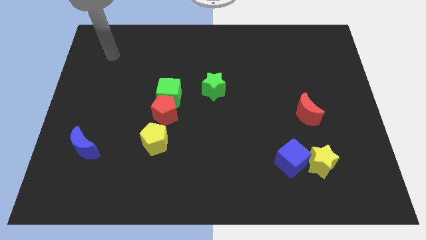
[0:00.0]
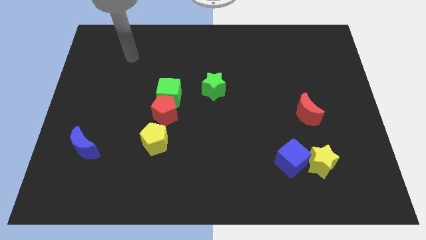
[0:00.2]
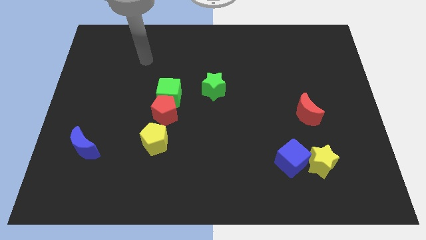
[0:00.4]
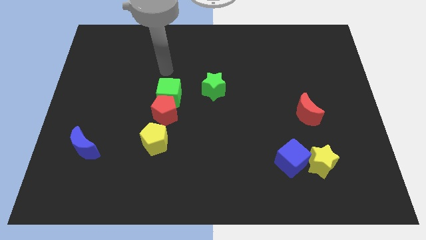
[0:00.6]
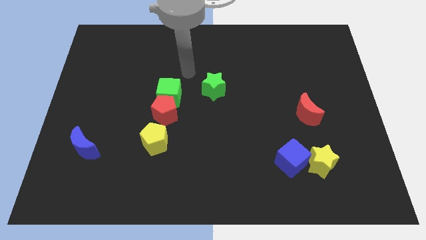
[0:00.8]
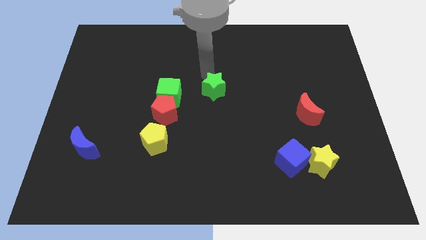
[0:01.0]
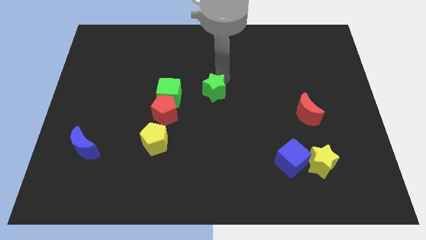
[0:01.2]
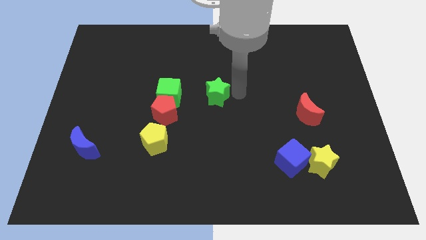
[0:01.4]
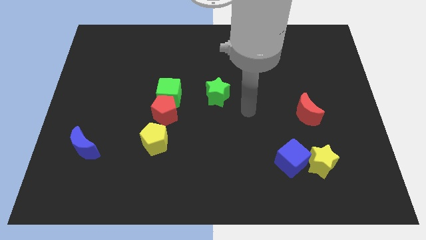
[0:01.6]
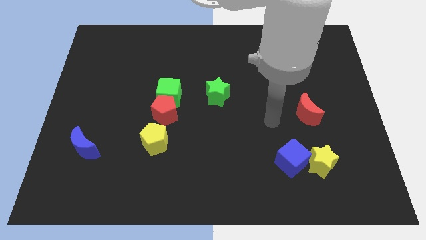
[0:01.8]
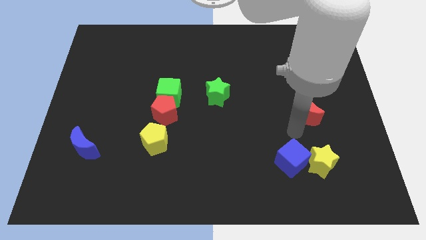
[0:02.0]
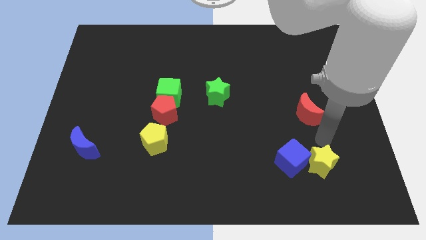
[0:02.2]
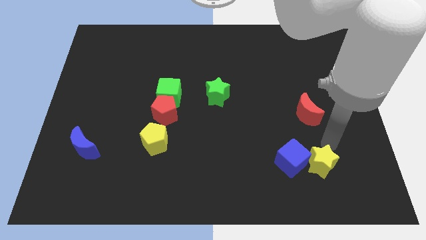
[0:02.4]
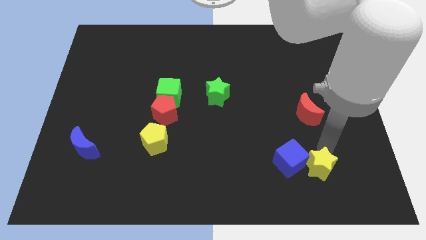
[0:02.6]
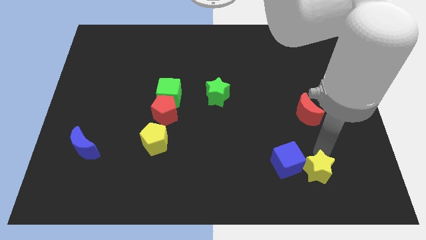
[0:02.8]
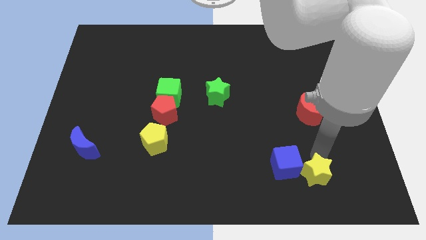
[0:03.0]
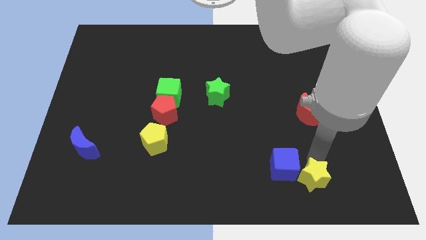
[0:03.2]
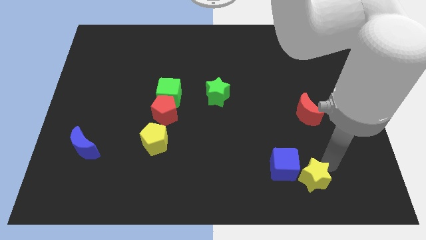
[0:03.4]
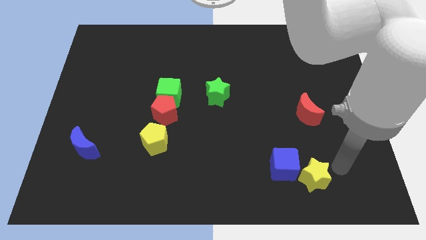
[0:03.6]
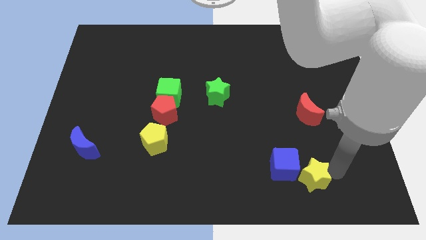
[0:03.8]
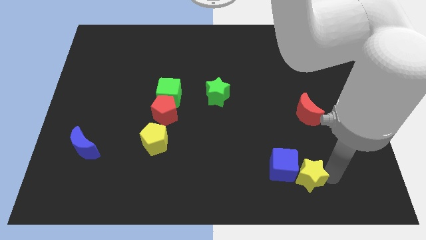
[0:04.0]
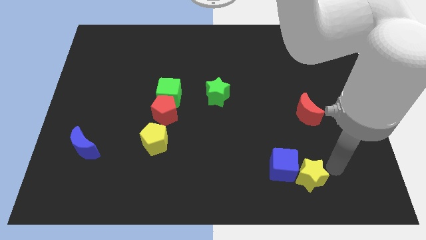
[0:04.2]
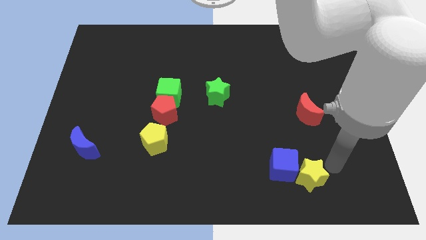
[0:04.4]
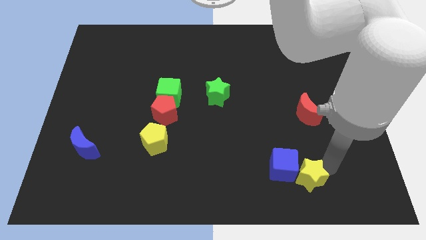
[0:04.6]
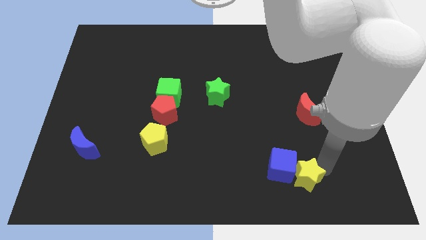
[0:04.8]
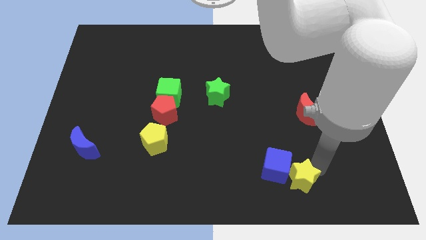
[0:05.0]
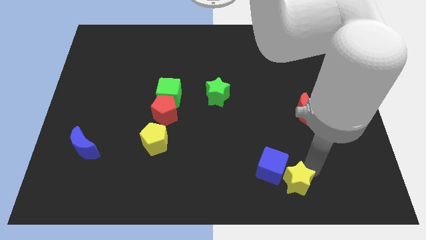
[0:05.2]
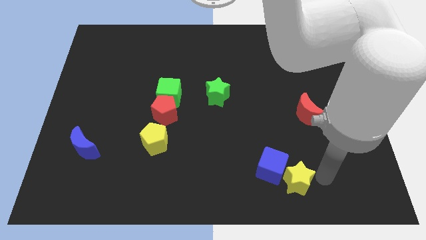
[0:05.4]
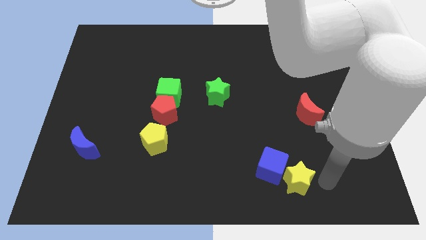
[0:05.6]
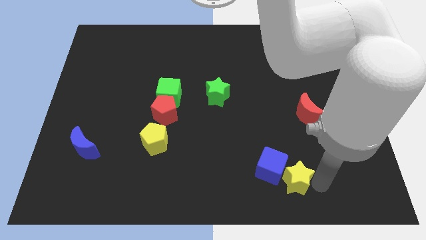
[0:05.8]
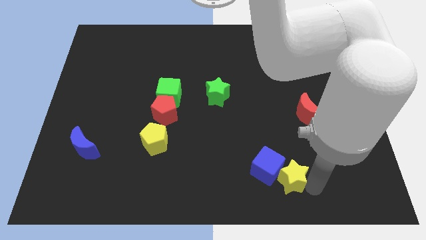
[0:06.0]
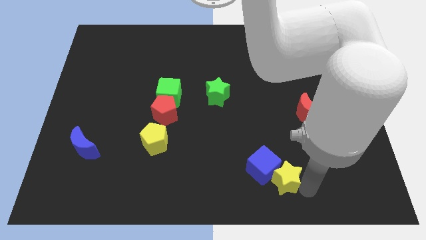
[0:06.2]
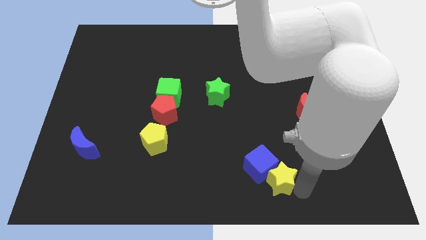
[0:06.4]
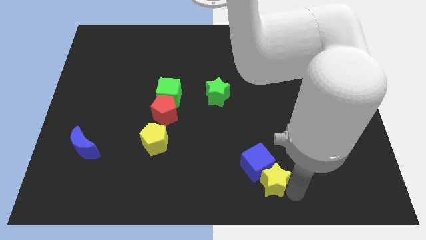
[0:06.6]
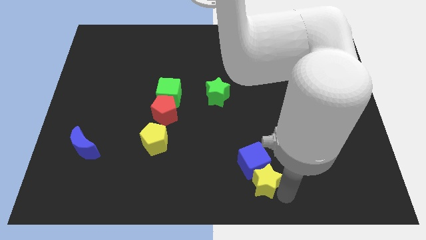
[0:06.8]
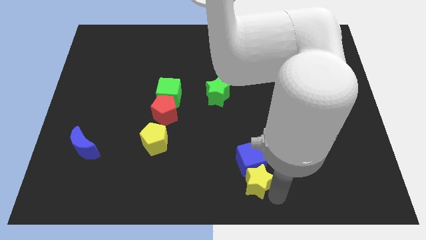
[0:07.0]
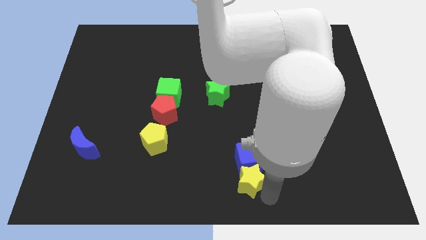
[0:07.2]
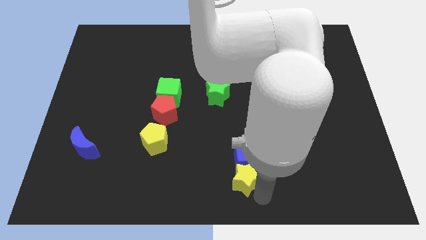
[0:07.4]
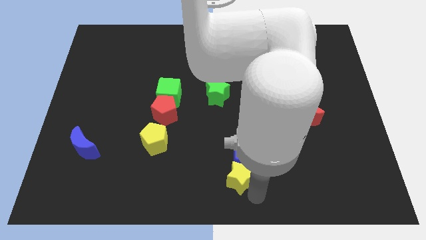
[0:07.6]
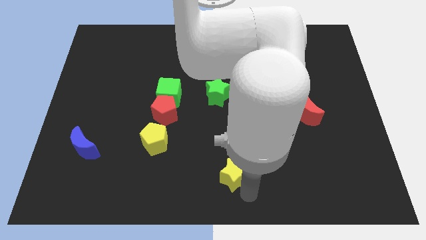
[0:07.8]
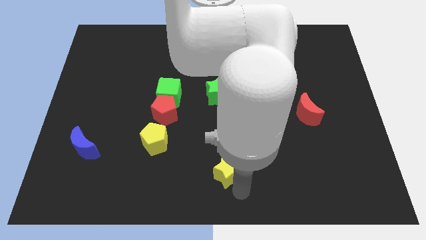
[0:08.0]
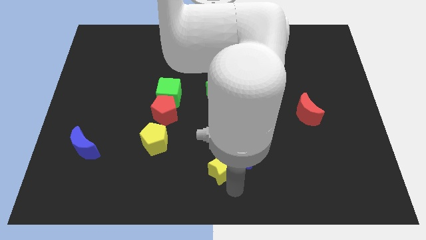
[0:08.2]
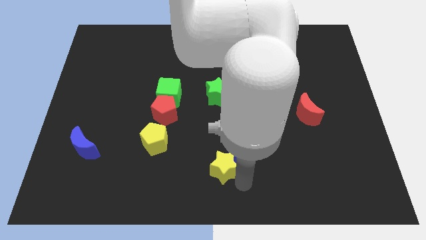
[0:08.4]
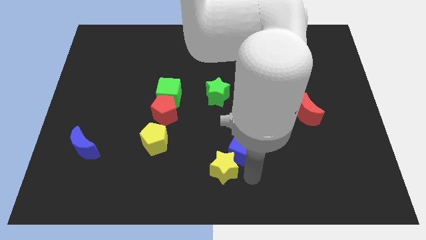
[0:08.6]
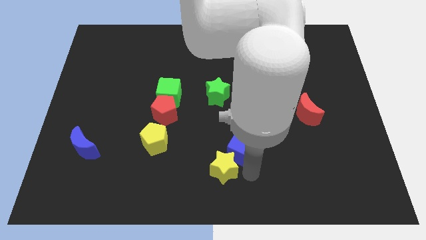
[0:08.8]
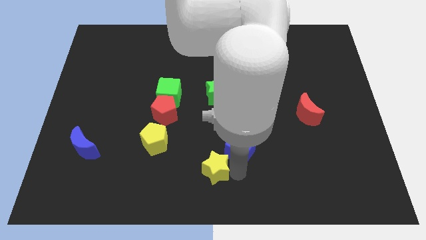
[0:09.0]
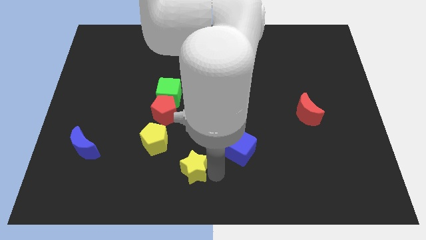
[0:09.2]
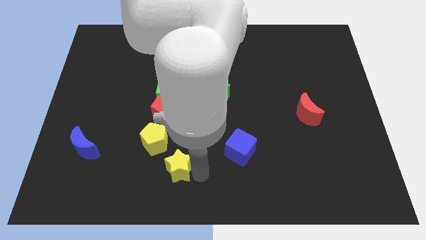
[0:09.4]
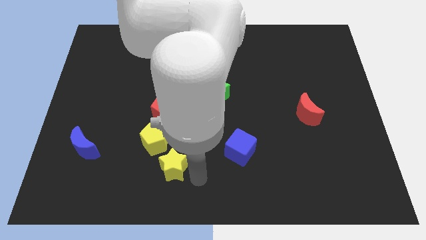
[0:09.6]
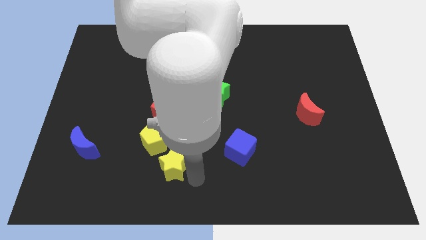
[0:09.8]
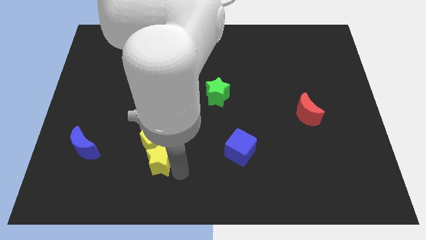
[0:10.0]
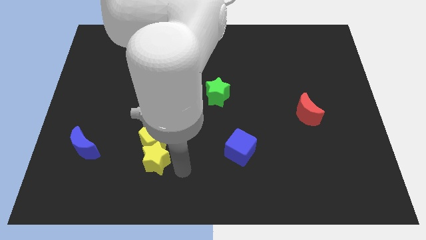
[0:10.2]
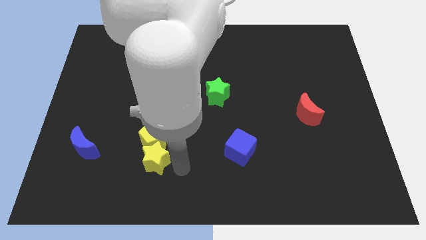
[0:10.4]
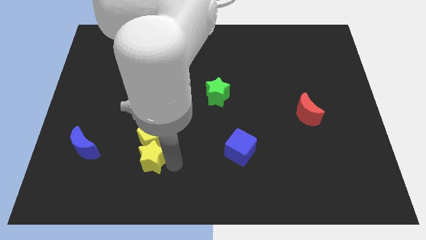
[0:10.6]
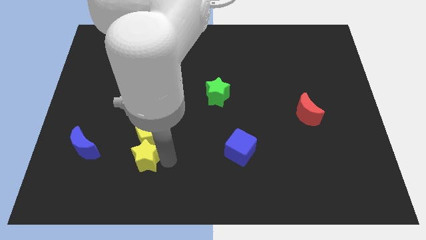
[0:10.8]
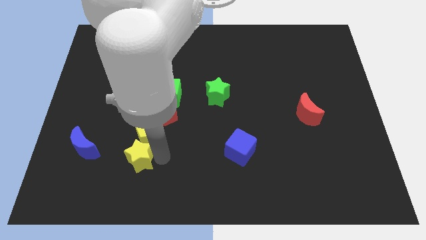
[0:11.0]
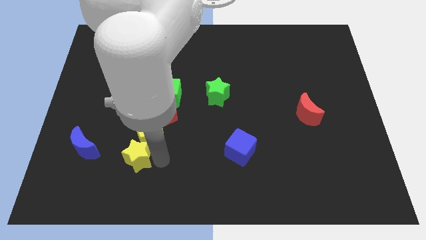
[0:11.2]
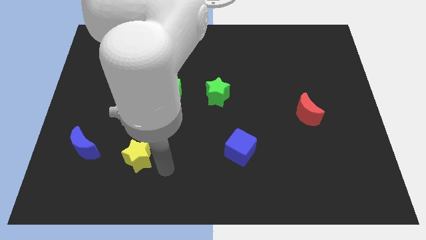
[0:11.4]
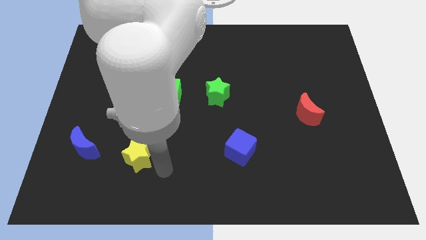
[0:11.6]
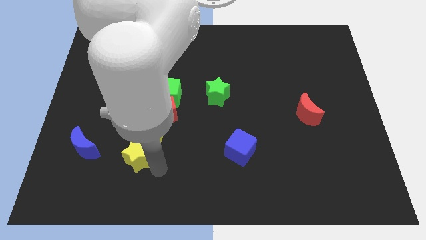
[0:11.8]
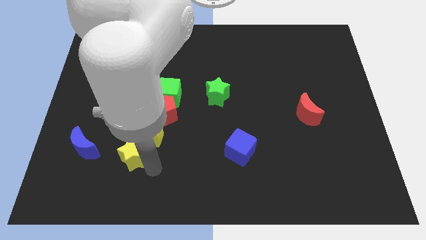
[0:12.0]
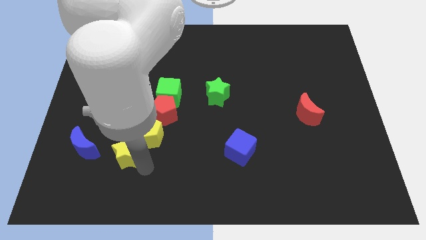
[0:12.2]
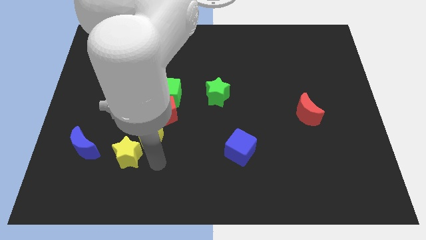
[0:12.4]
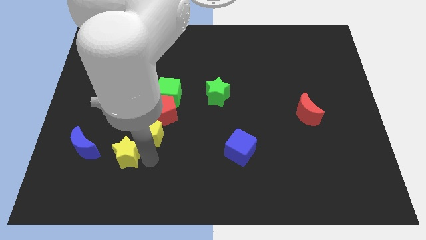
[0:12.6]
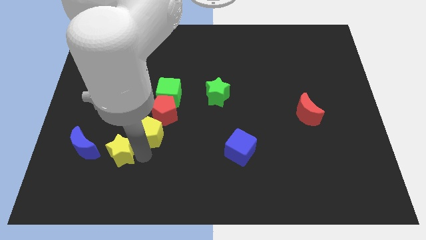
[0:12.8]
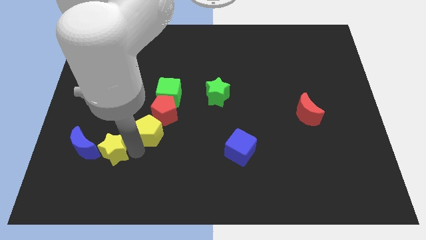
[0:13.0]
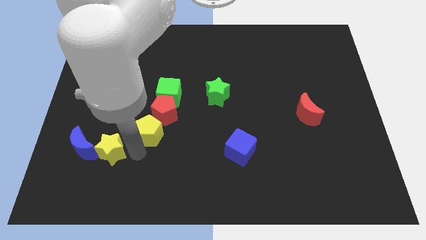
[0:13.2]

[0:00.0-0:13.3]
put the yellow star to the blue moon
